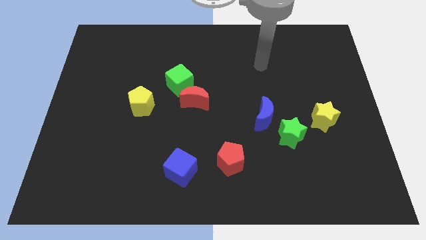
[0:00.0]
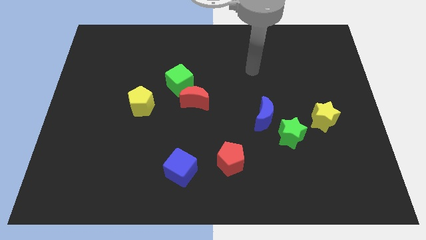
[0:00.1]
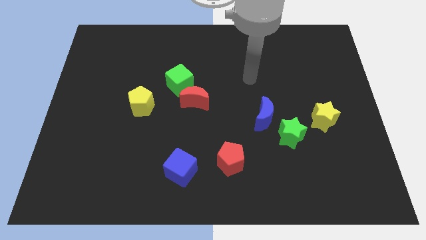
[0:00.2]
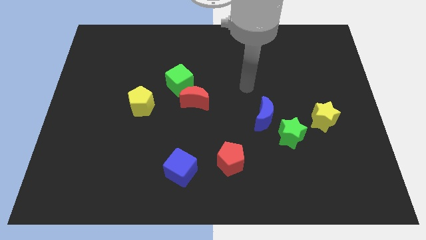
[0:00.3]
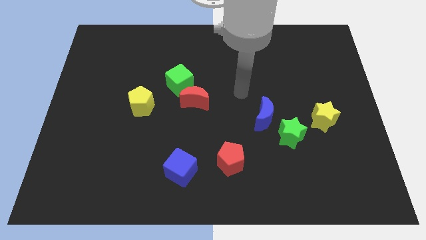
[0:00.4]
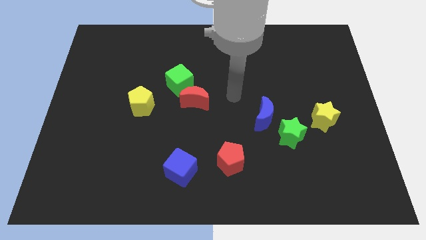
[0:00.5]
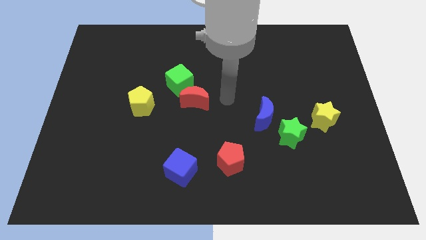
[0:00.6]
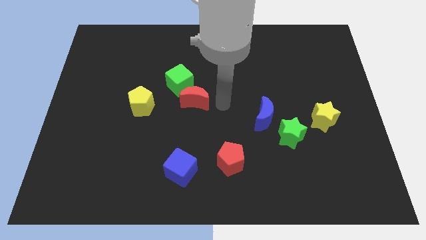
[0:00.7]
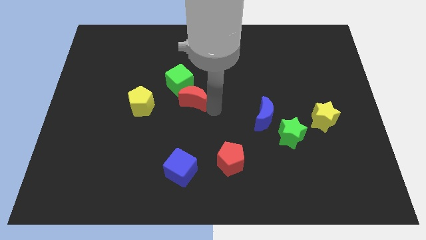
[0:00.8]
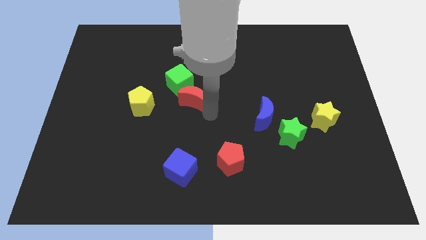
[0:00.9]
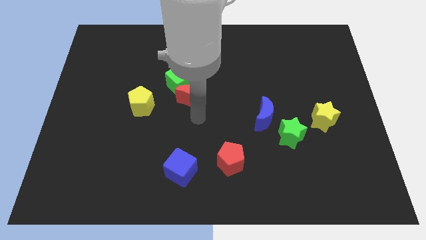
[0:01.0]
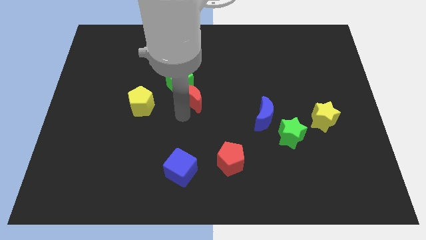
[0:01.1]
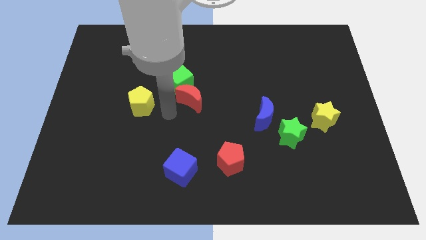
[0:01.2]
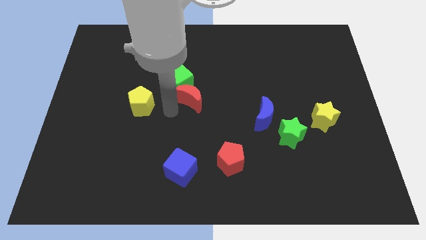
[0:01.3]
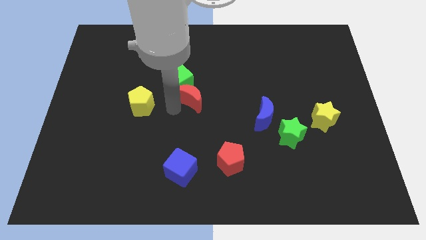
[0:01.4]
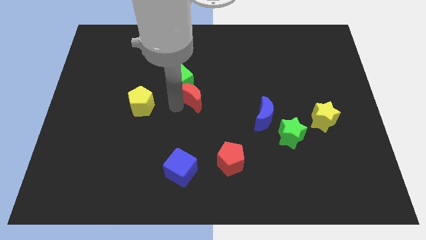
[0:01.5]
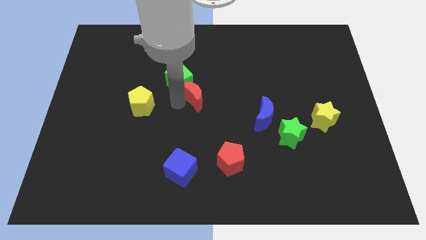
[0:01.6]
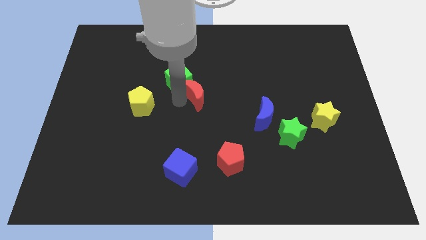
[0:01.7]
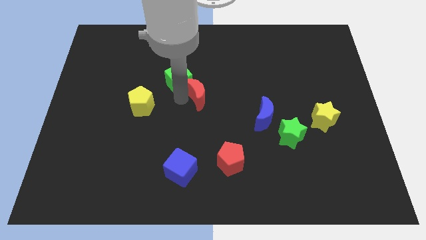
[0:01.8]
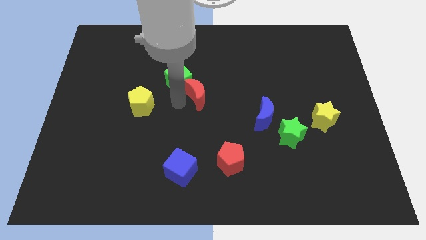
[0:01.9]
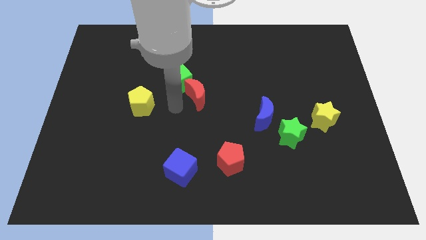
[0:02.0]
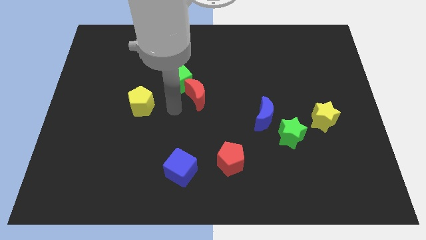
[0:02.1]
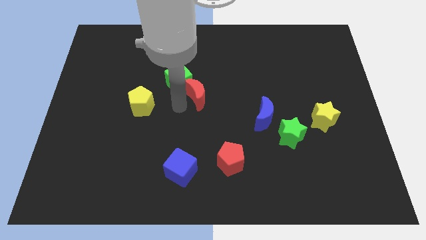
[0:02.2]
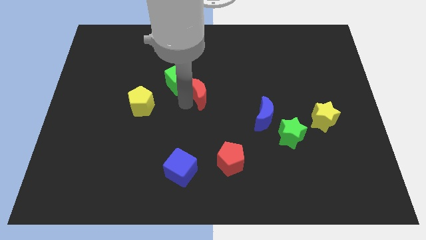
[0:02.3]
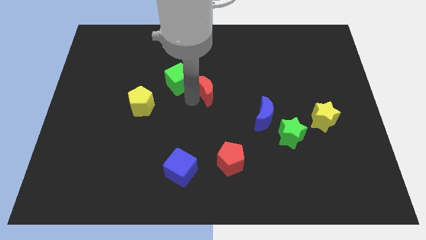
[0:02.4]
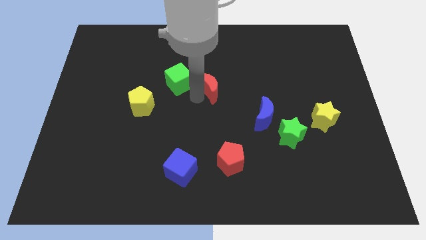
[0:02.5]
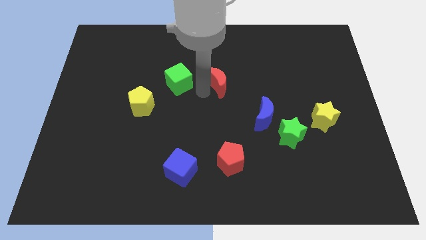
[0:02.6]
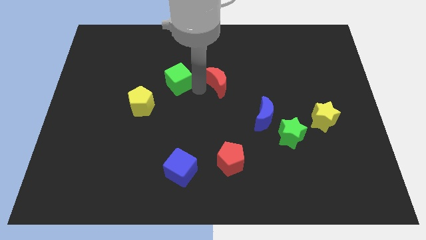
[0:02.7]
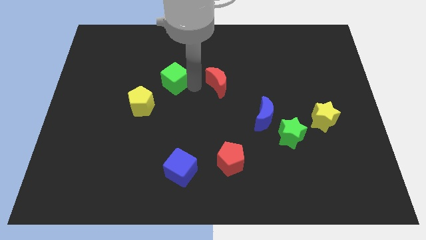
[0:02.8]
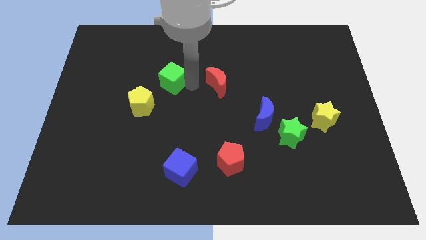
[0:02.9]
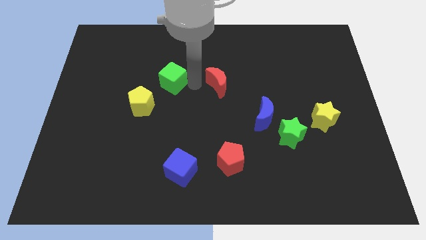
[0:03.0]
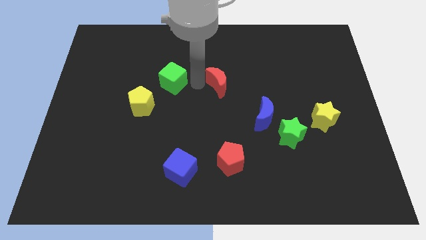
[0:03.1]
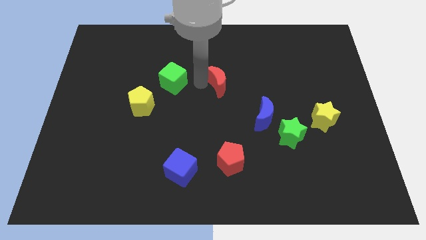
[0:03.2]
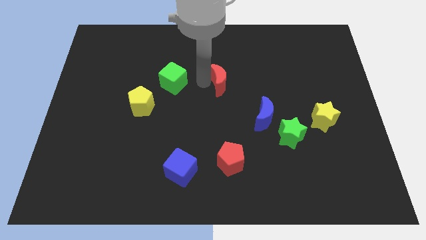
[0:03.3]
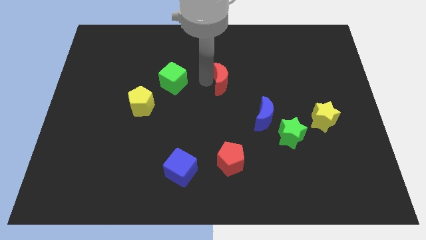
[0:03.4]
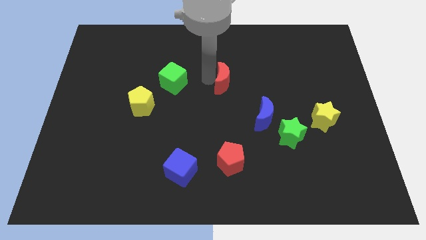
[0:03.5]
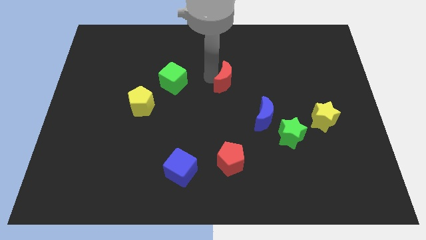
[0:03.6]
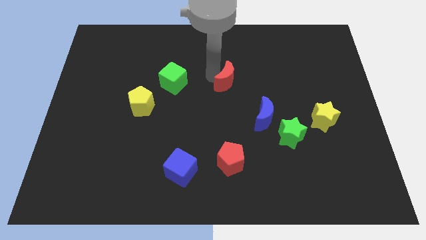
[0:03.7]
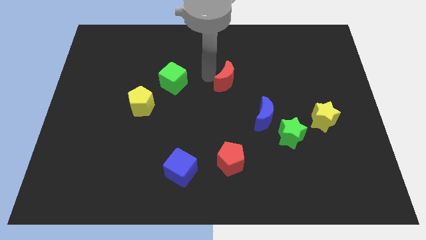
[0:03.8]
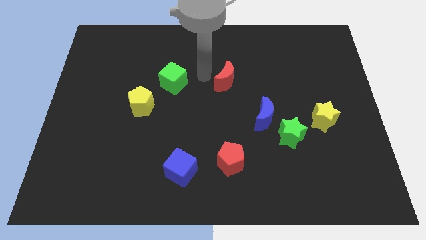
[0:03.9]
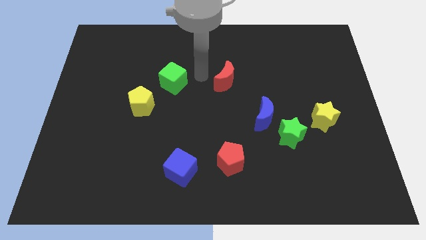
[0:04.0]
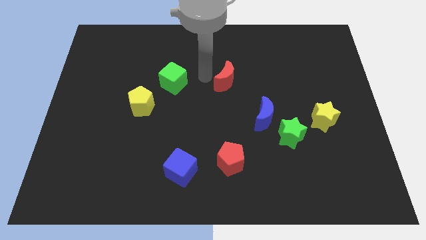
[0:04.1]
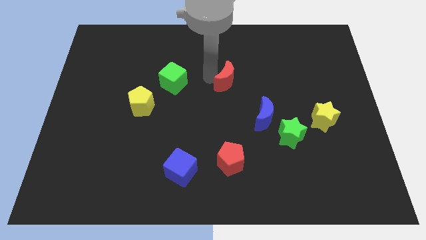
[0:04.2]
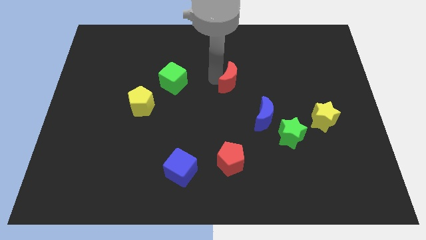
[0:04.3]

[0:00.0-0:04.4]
push the red moon somewhat right

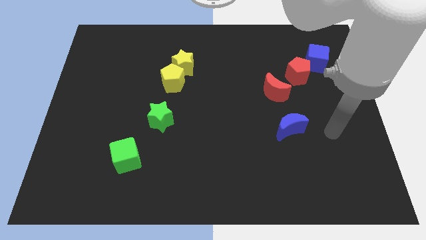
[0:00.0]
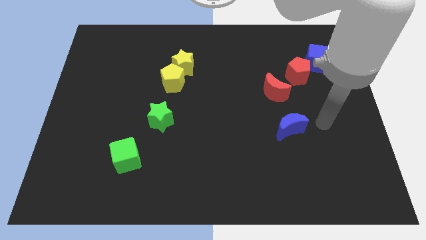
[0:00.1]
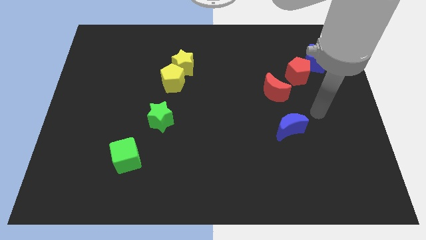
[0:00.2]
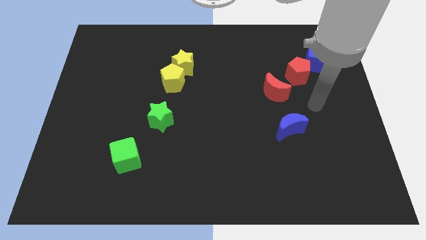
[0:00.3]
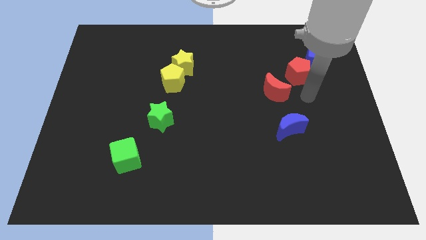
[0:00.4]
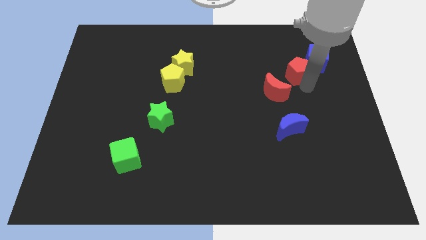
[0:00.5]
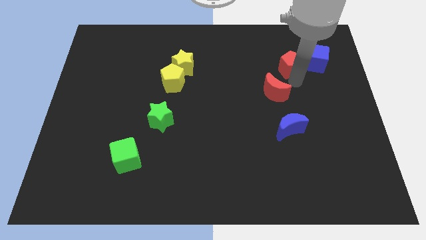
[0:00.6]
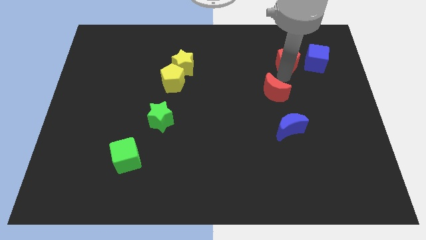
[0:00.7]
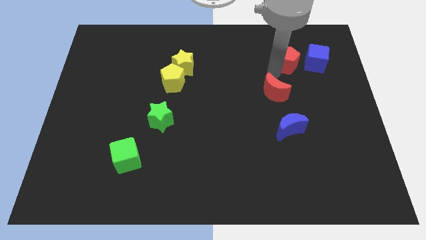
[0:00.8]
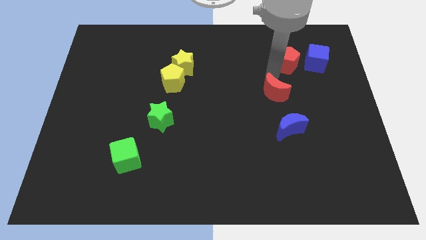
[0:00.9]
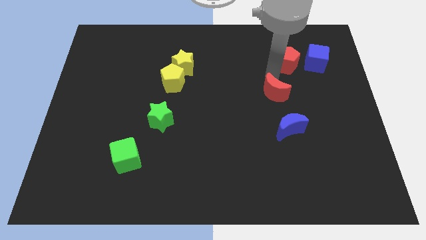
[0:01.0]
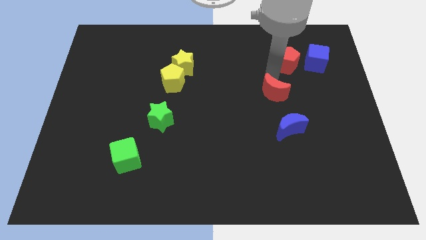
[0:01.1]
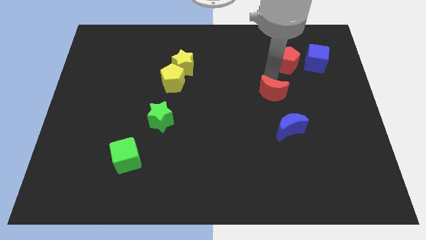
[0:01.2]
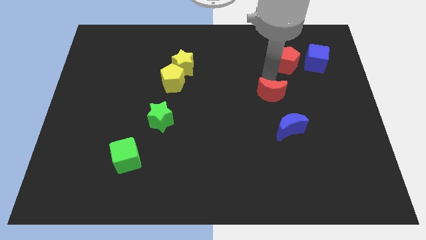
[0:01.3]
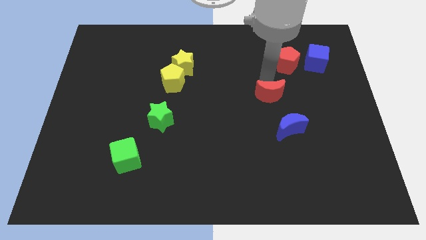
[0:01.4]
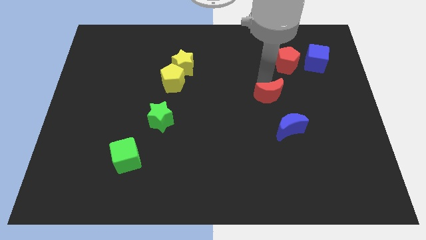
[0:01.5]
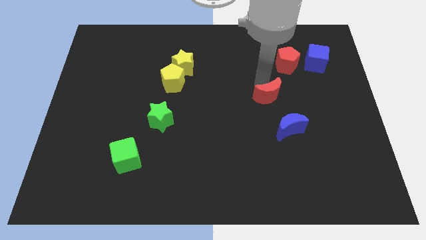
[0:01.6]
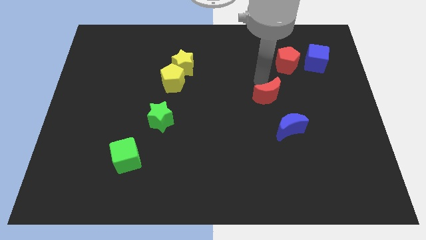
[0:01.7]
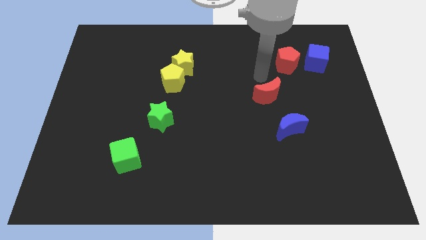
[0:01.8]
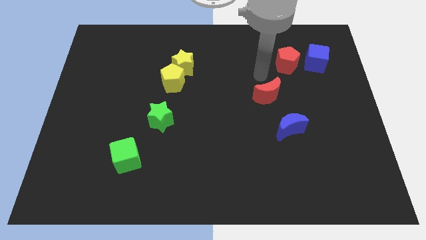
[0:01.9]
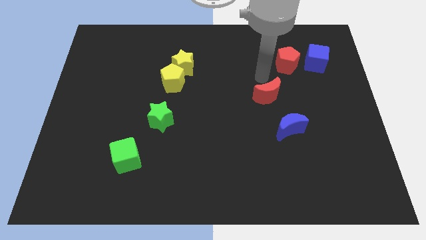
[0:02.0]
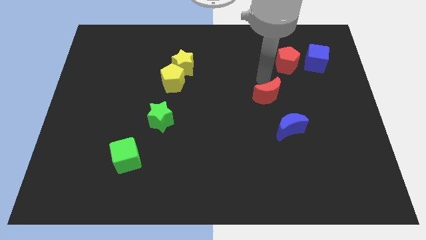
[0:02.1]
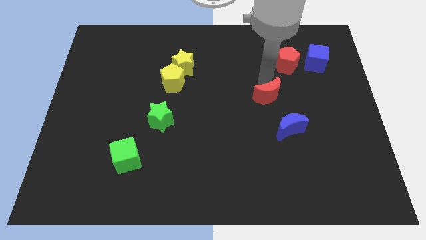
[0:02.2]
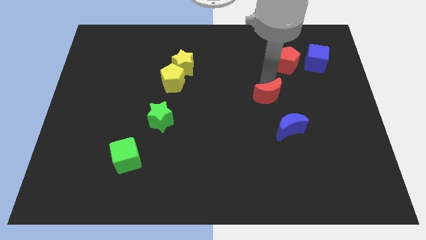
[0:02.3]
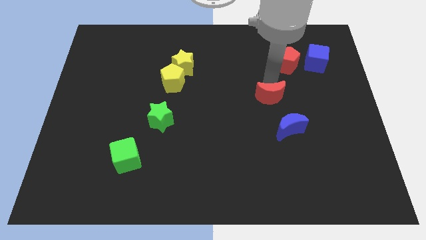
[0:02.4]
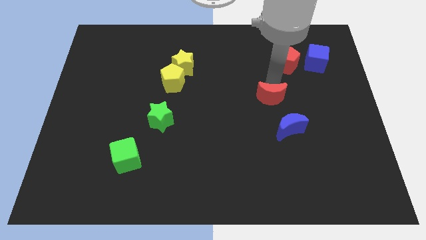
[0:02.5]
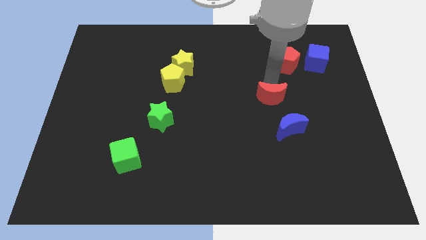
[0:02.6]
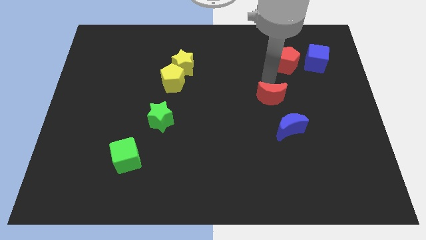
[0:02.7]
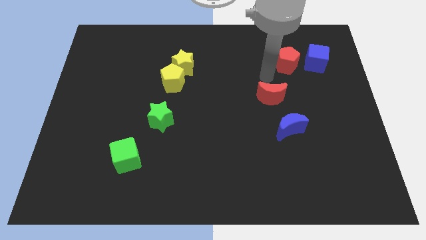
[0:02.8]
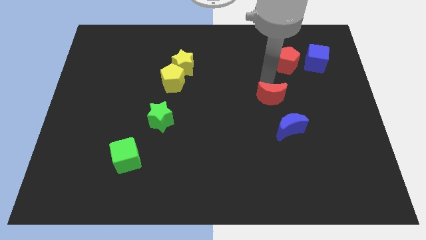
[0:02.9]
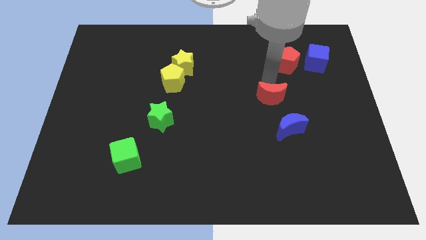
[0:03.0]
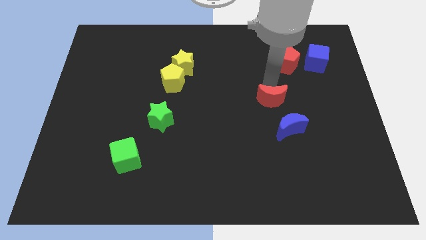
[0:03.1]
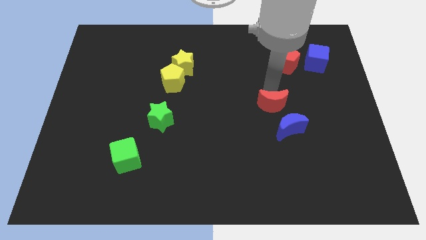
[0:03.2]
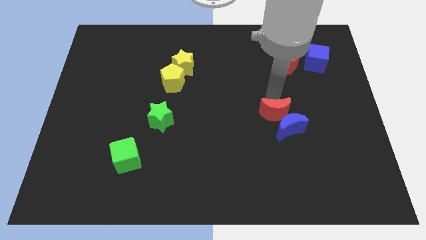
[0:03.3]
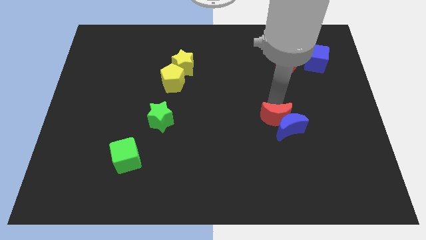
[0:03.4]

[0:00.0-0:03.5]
move the red moon a little bit down

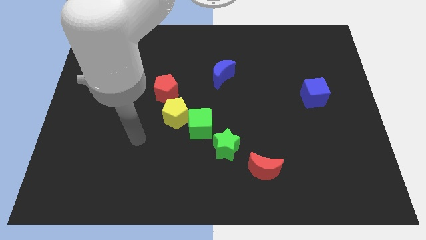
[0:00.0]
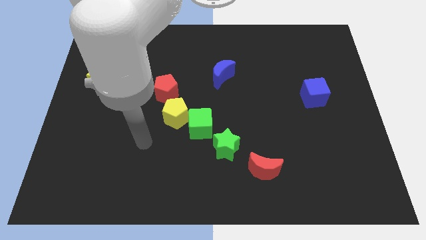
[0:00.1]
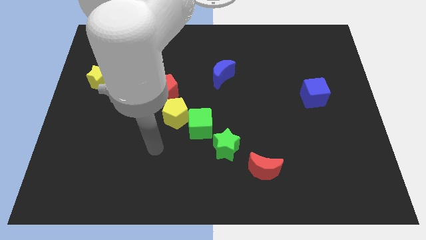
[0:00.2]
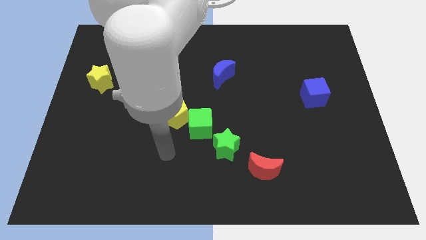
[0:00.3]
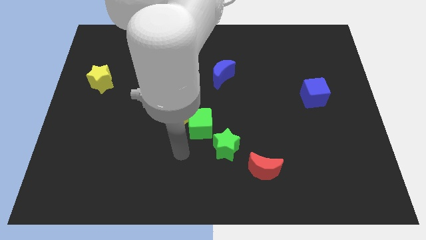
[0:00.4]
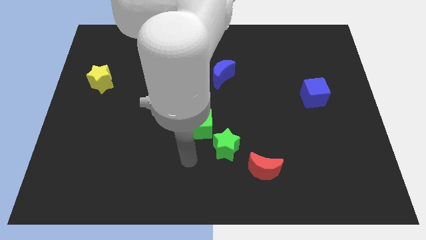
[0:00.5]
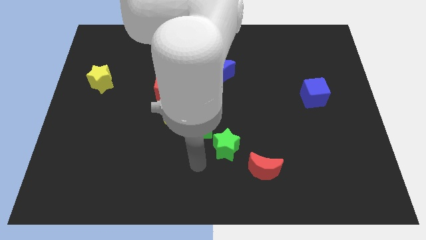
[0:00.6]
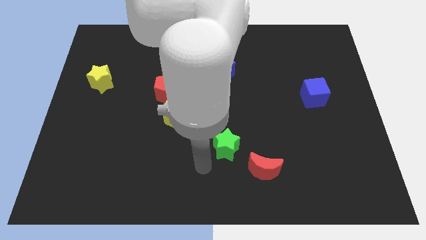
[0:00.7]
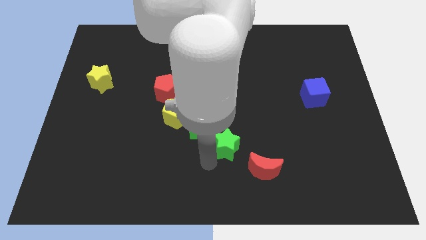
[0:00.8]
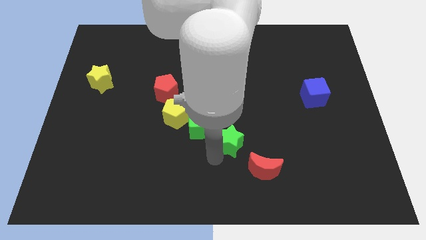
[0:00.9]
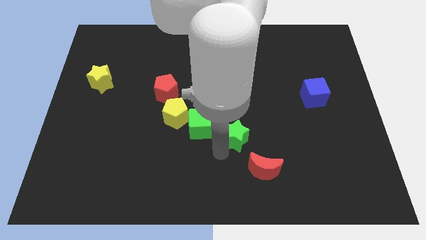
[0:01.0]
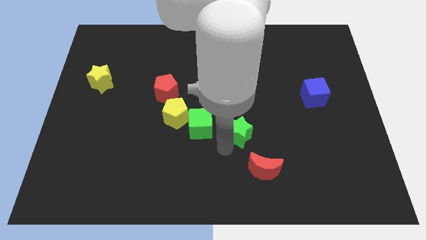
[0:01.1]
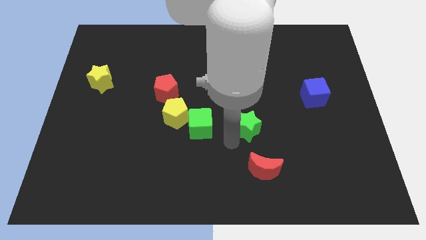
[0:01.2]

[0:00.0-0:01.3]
move the green star a little up and right diagonally
